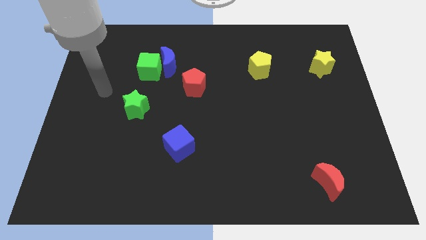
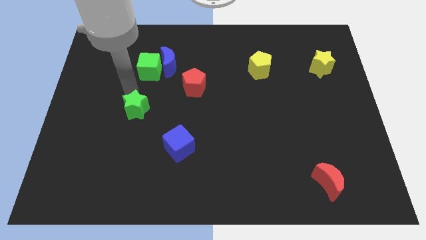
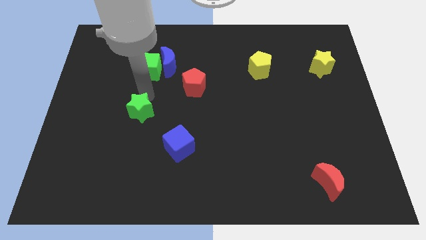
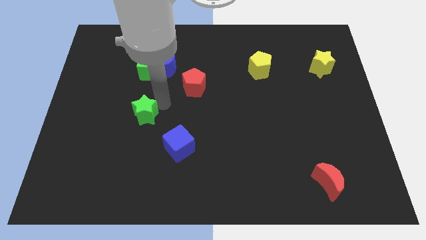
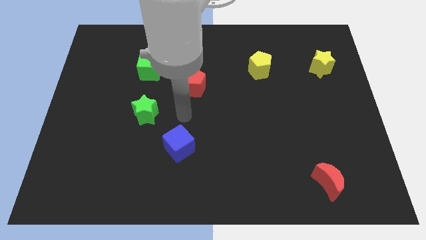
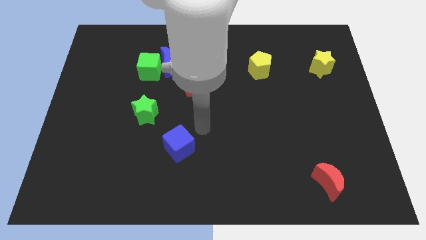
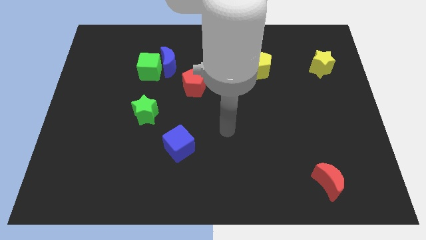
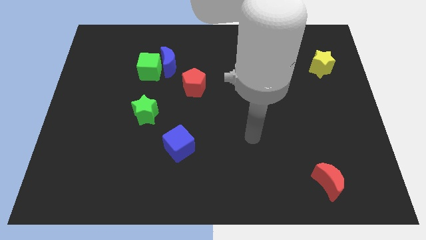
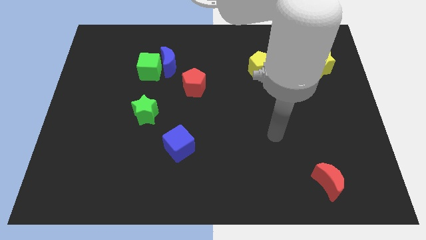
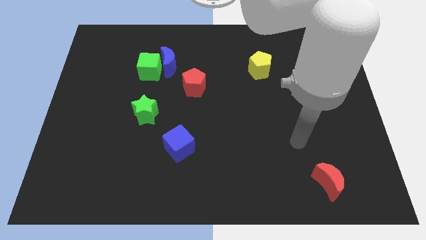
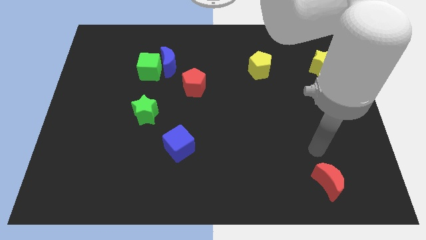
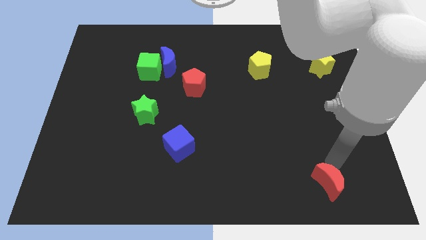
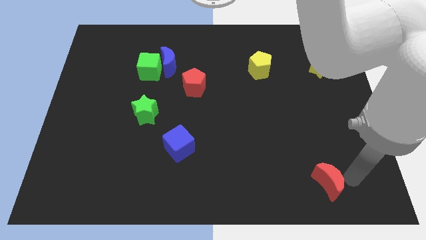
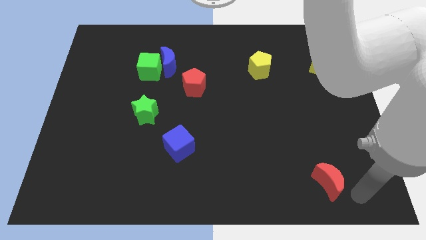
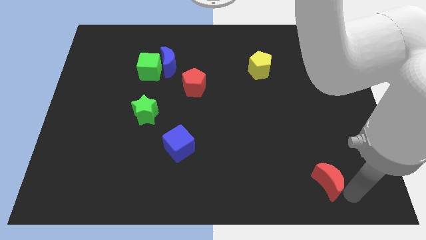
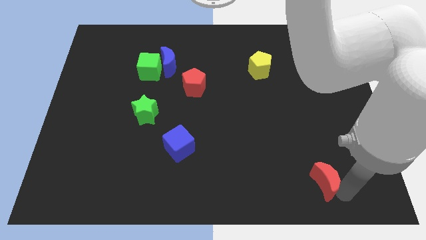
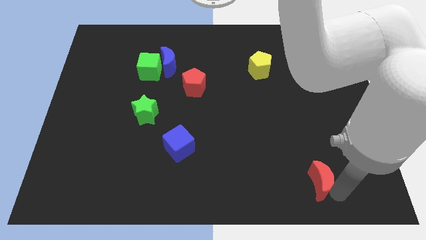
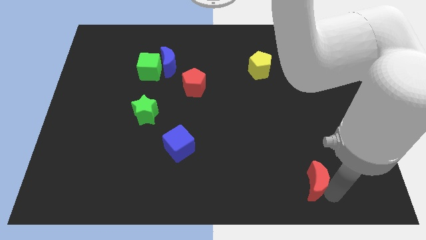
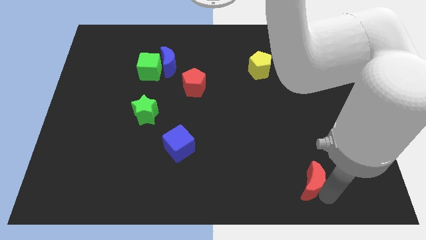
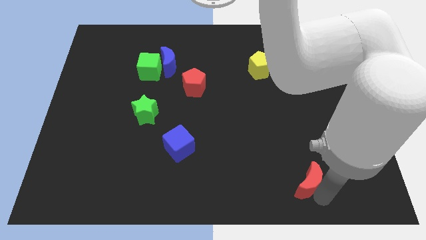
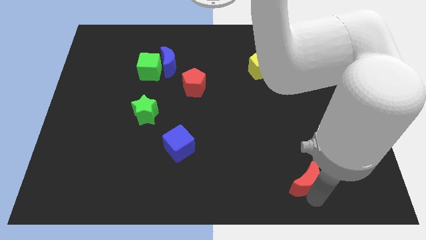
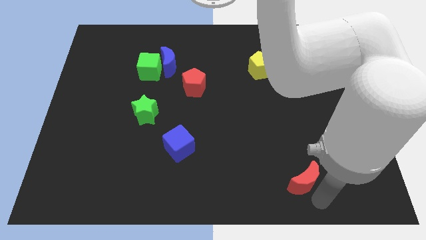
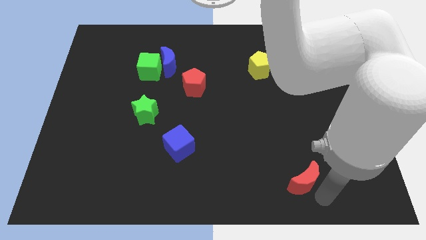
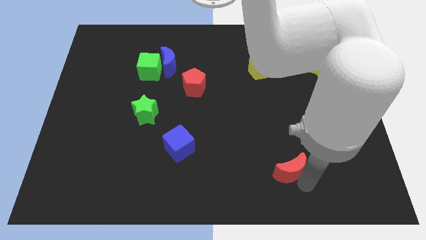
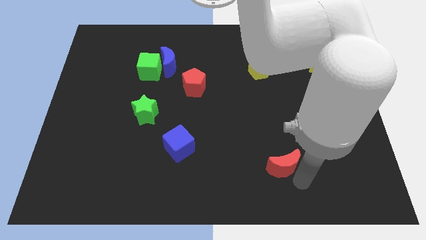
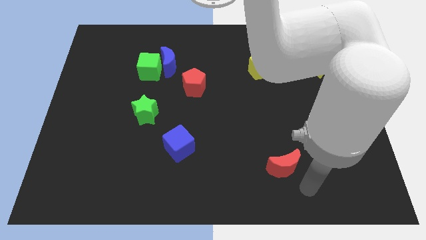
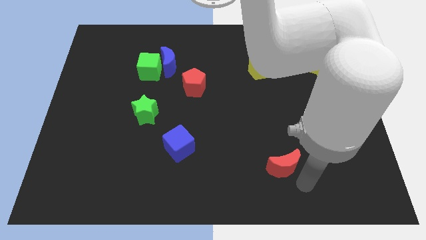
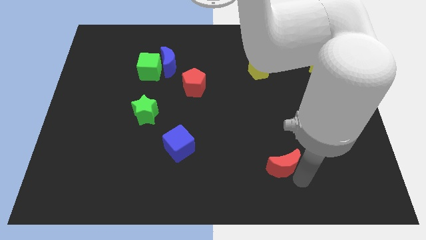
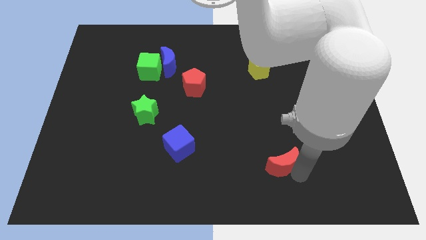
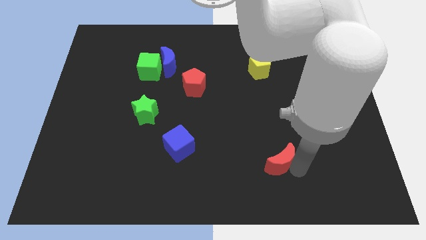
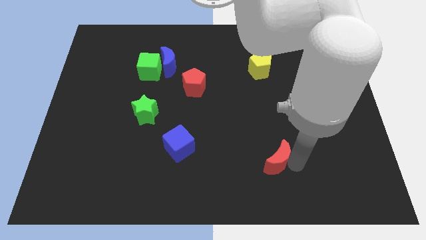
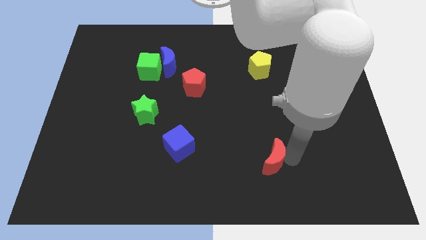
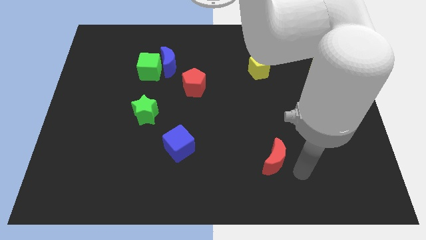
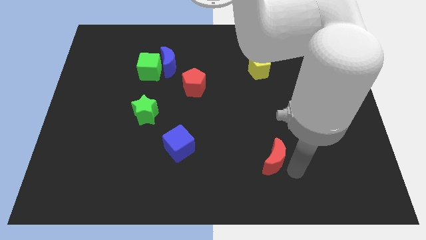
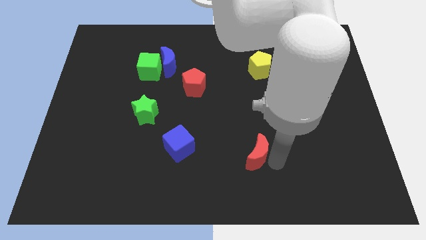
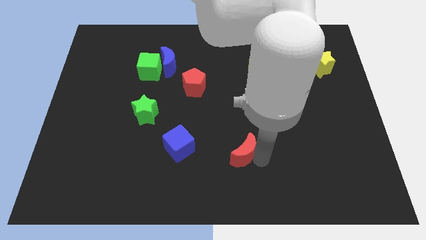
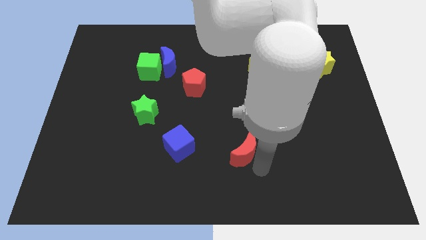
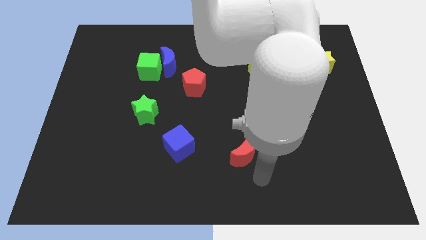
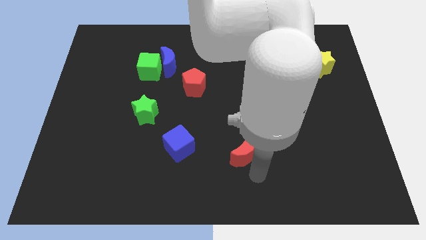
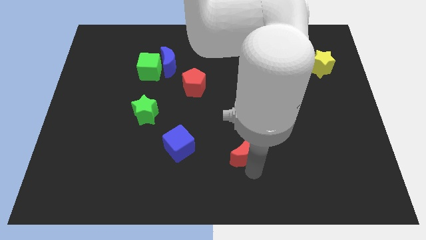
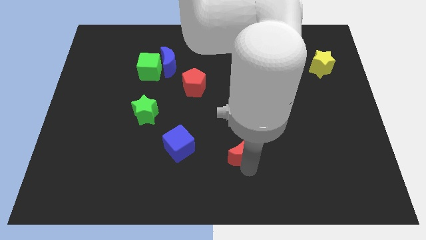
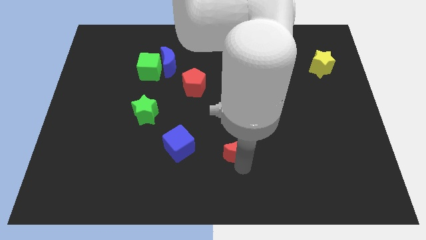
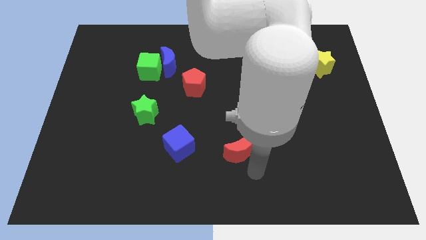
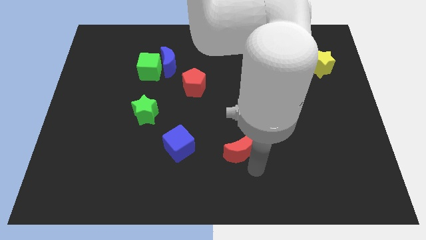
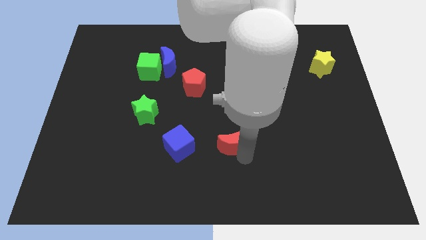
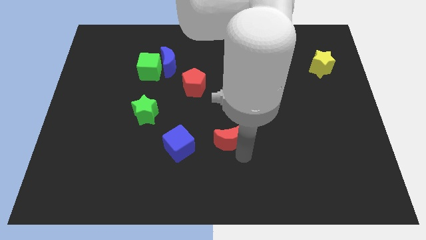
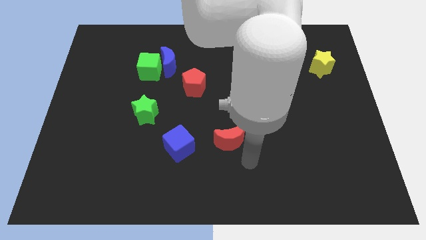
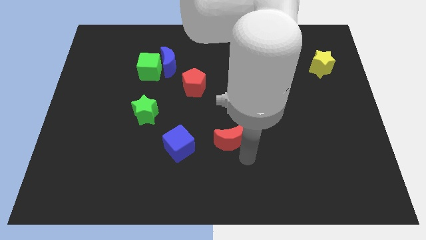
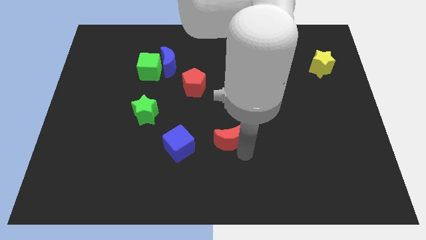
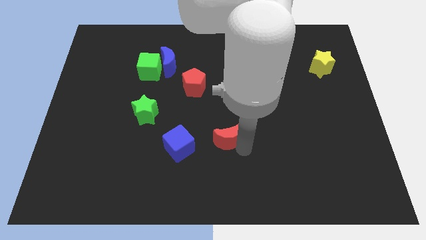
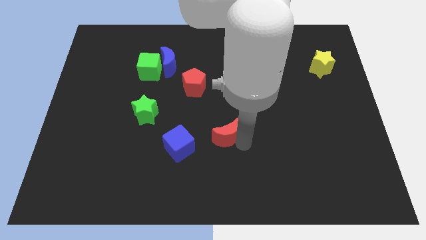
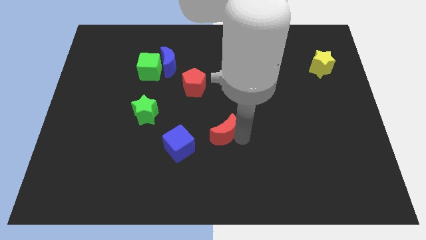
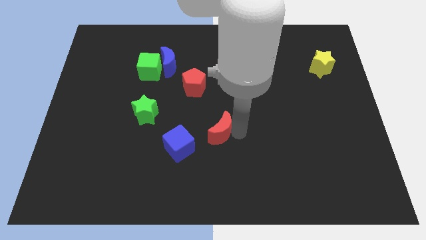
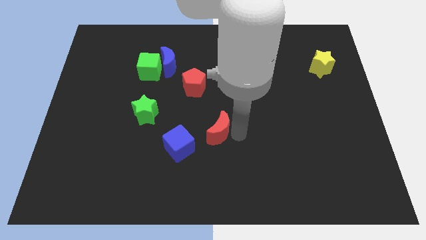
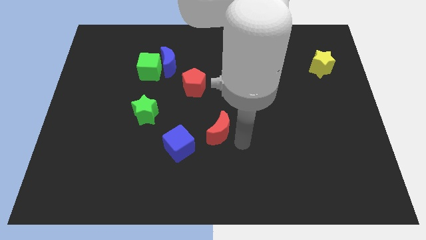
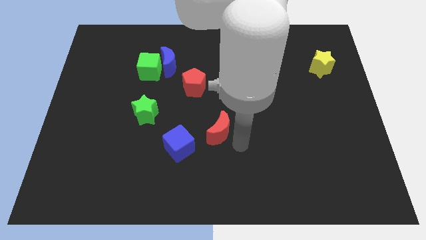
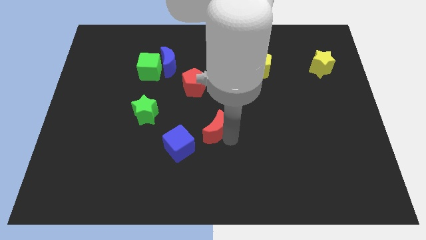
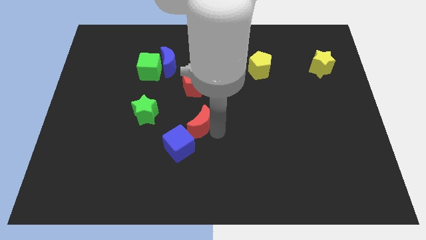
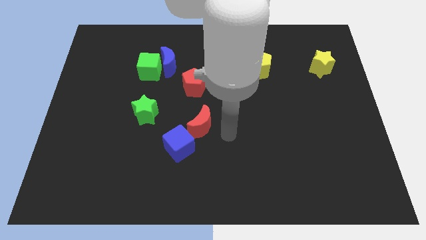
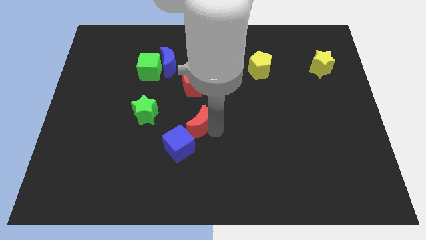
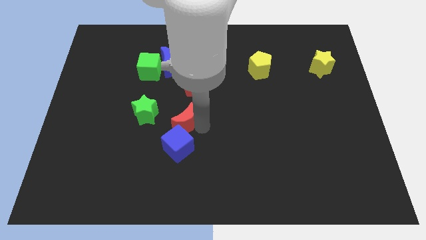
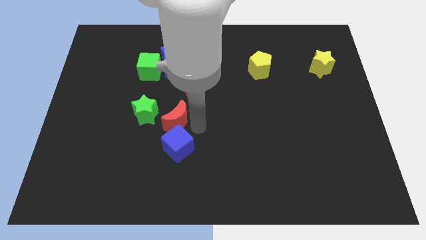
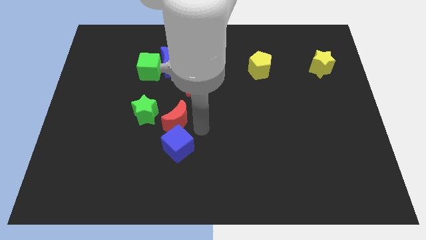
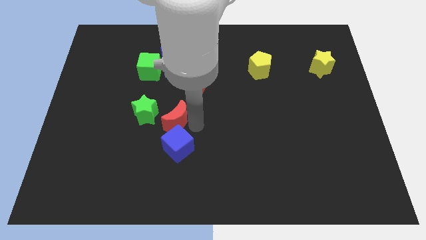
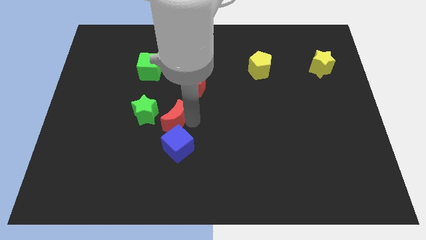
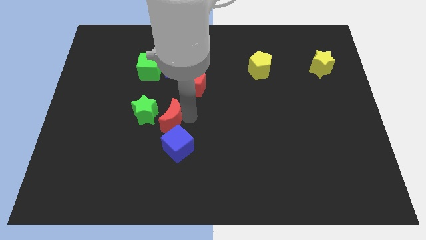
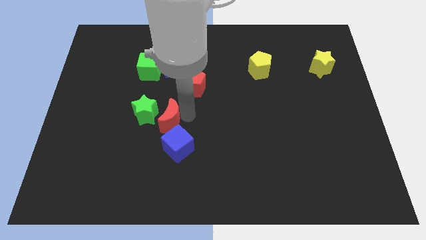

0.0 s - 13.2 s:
push the red moon towards the green star

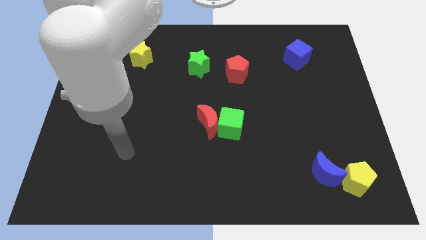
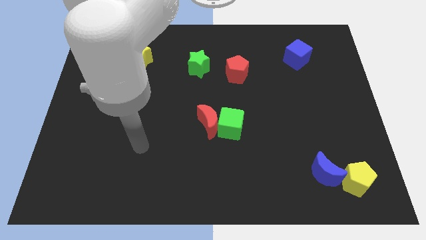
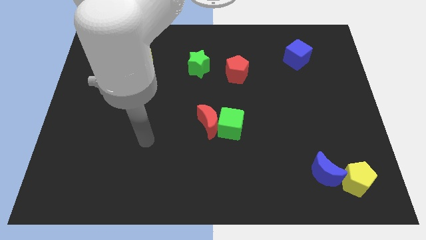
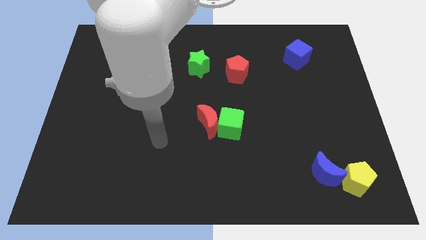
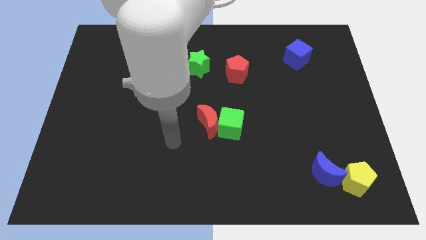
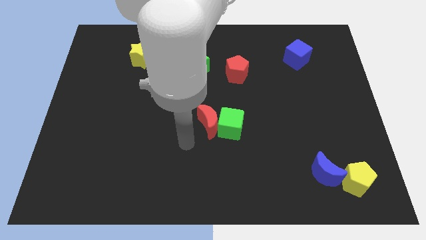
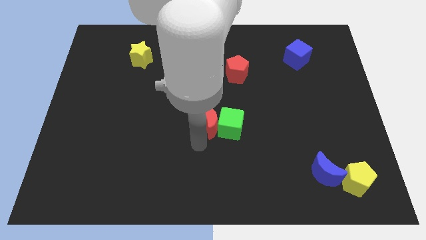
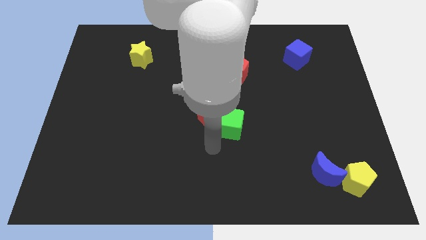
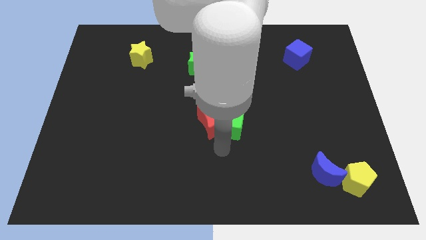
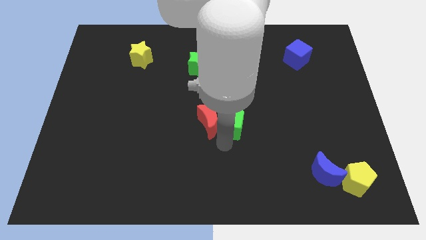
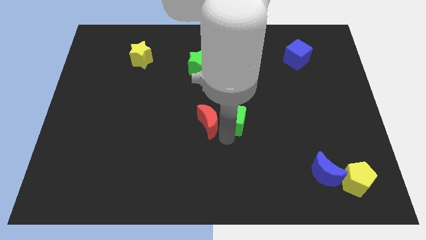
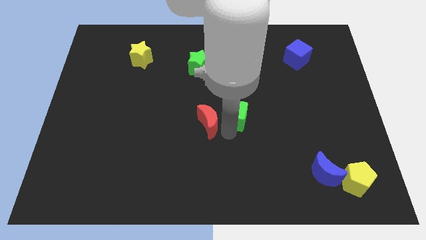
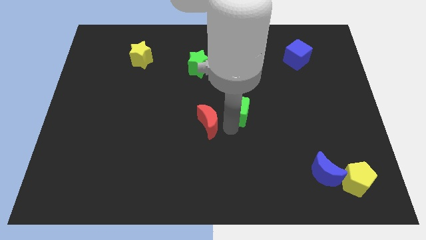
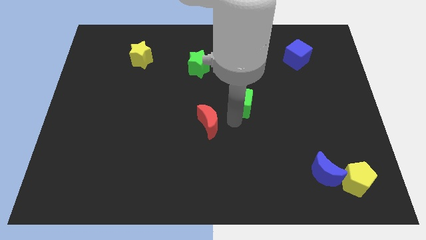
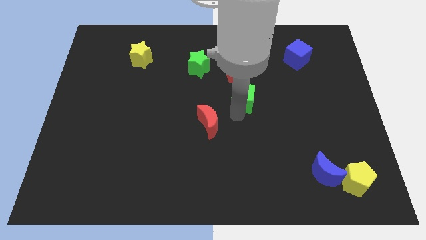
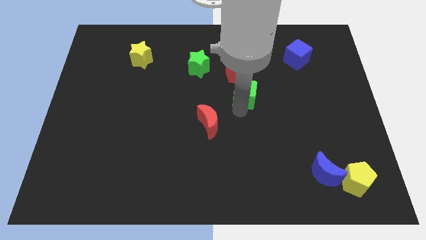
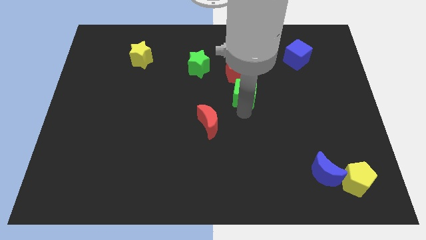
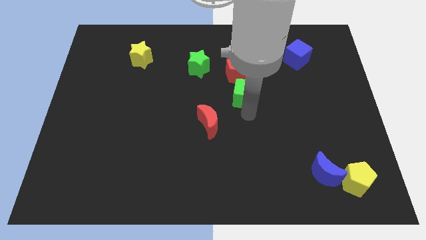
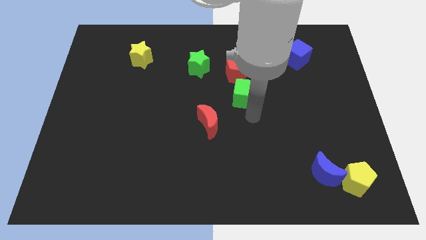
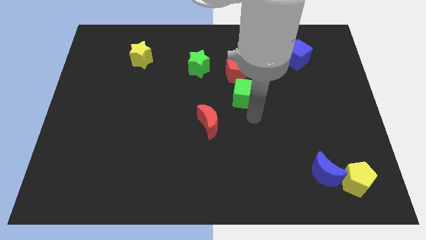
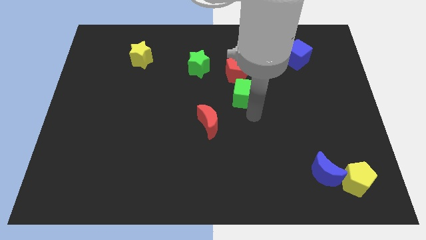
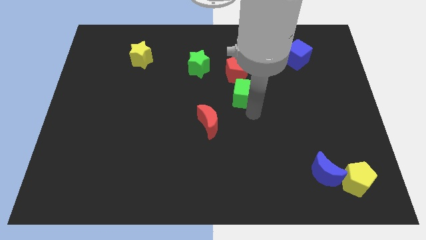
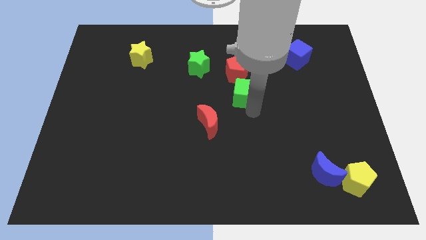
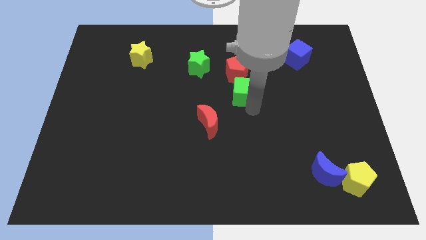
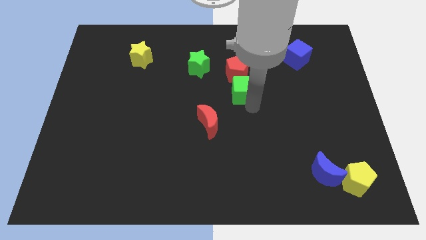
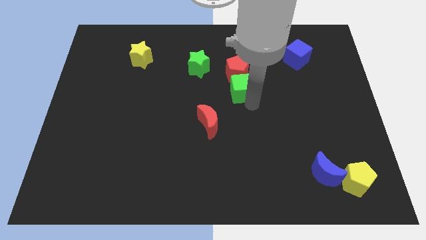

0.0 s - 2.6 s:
move the green cube close to the red pentagon
